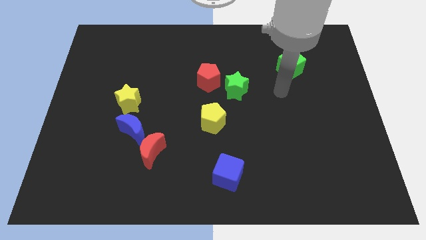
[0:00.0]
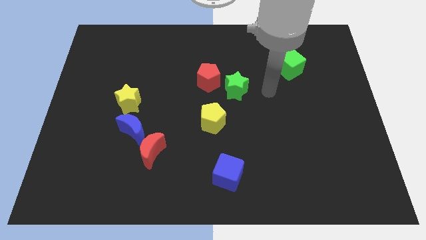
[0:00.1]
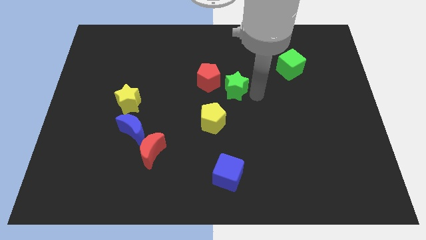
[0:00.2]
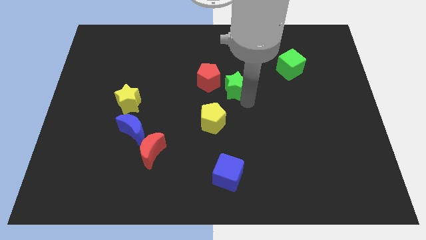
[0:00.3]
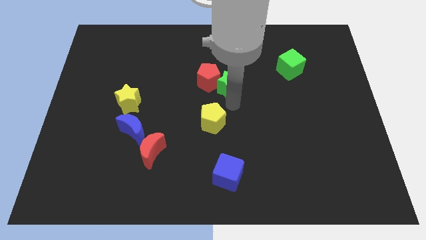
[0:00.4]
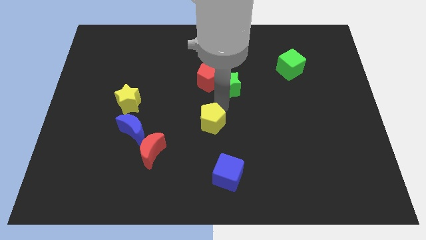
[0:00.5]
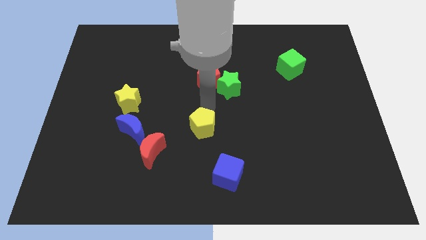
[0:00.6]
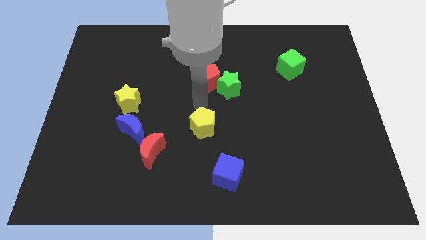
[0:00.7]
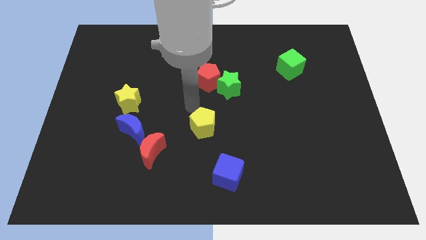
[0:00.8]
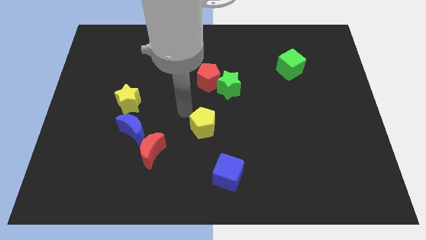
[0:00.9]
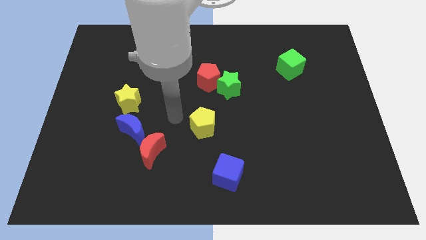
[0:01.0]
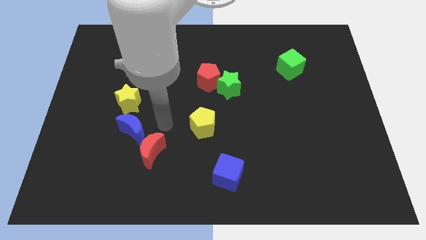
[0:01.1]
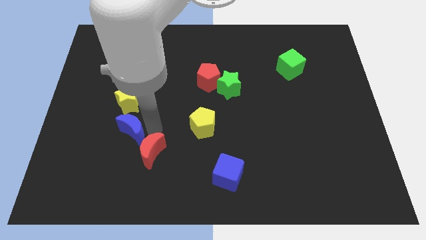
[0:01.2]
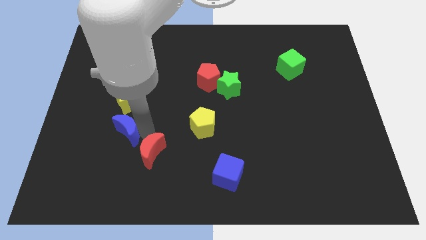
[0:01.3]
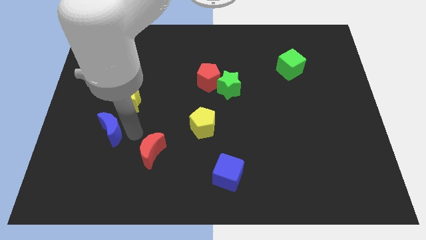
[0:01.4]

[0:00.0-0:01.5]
separate the red moon from the blue moon

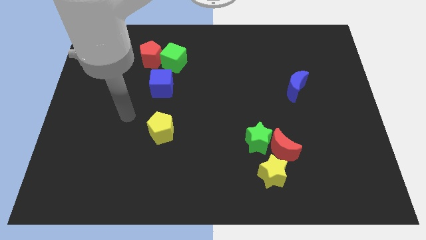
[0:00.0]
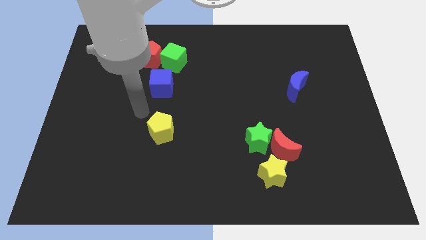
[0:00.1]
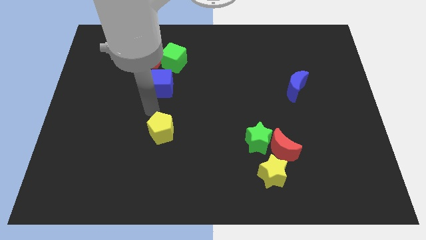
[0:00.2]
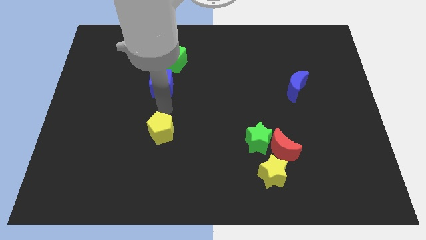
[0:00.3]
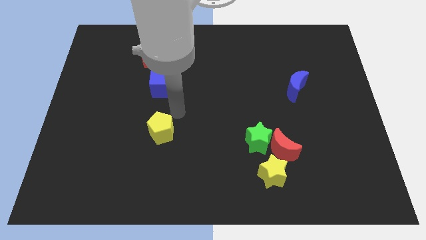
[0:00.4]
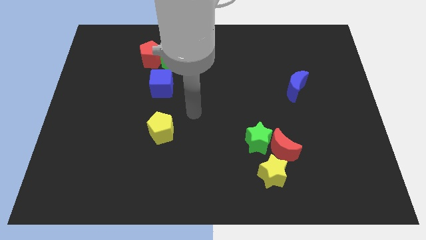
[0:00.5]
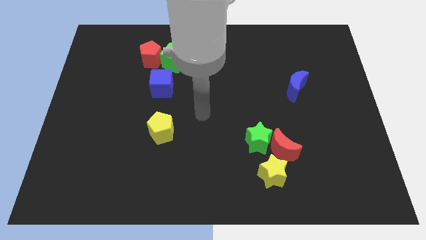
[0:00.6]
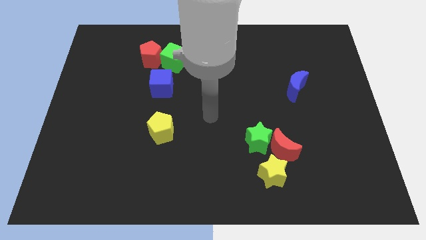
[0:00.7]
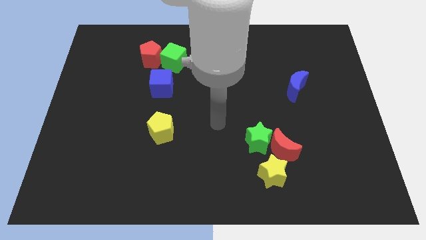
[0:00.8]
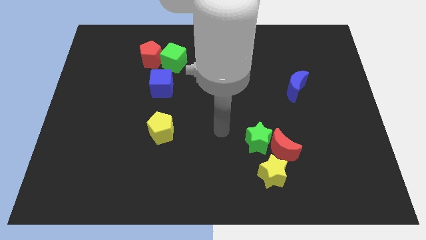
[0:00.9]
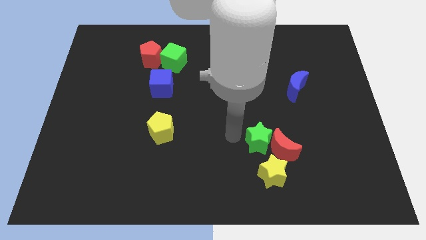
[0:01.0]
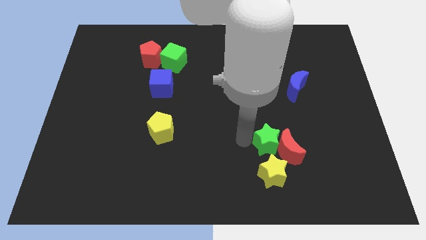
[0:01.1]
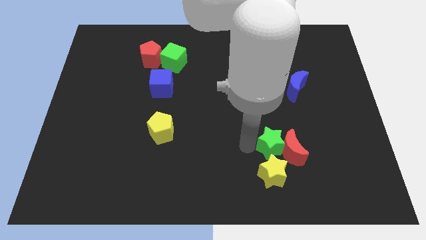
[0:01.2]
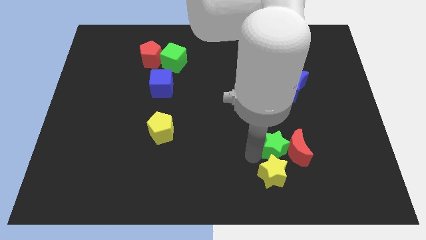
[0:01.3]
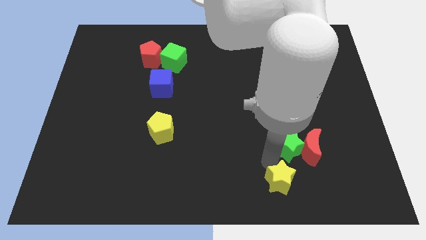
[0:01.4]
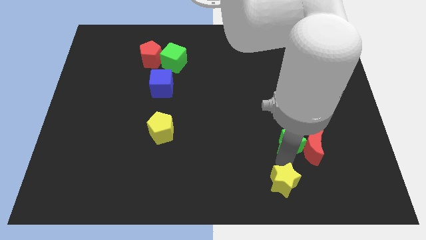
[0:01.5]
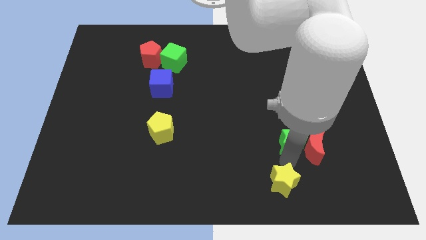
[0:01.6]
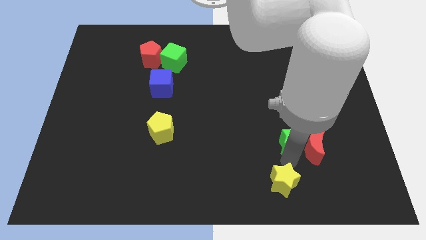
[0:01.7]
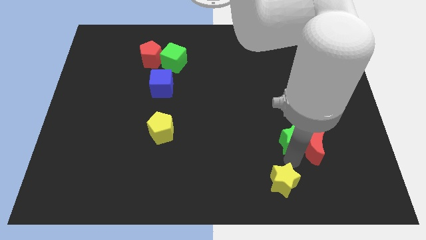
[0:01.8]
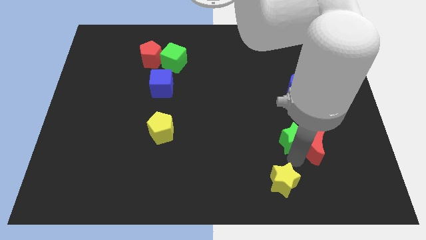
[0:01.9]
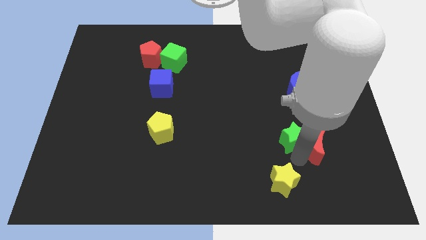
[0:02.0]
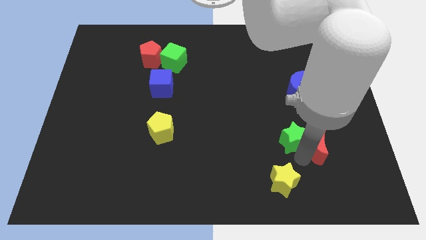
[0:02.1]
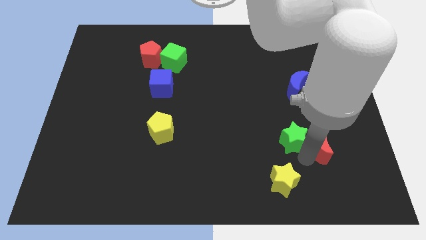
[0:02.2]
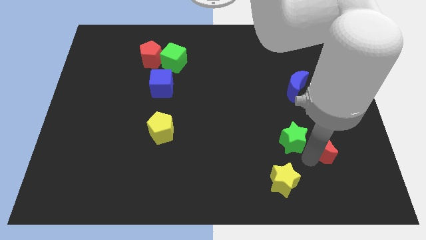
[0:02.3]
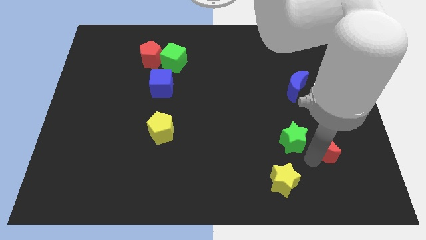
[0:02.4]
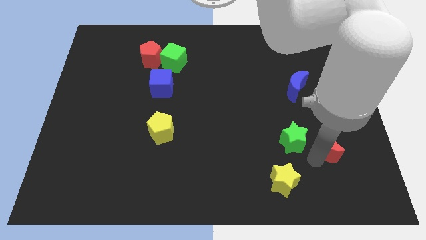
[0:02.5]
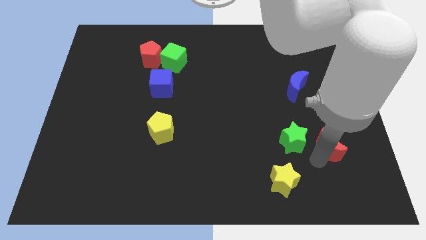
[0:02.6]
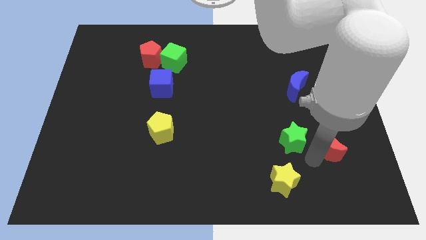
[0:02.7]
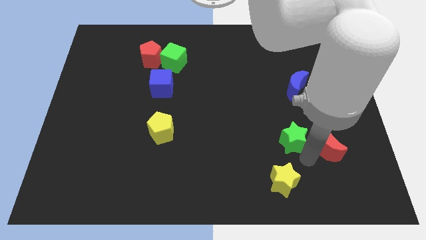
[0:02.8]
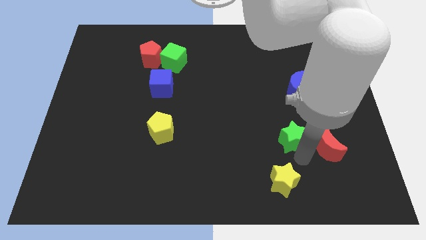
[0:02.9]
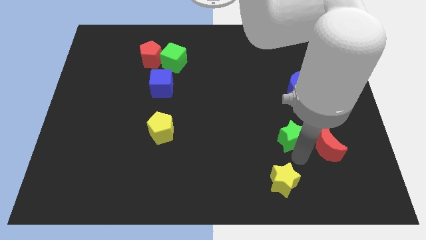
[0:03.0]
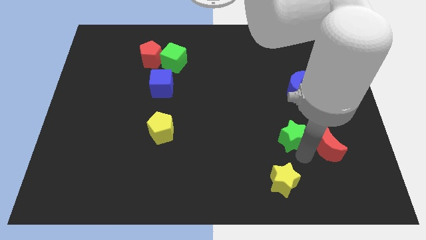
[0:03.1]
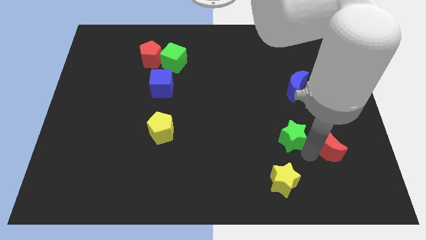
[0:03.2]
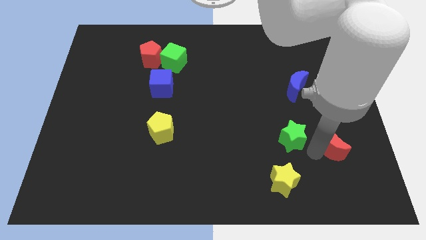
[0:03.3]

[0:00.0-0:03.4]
separate the red moon from the green star and yellow star

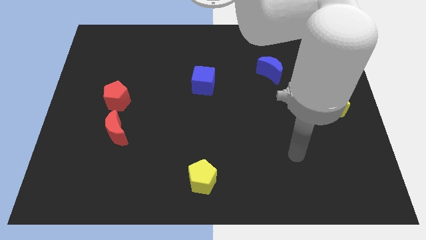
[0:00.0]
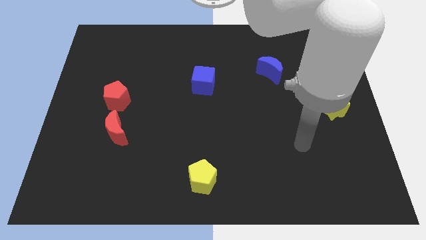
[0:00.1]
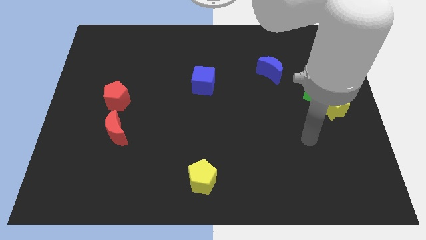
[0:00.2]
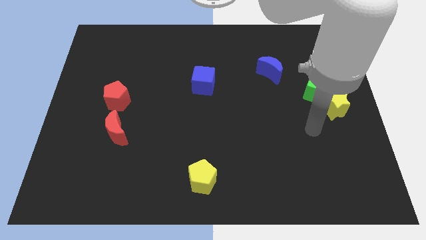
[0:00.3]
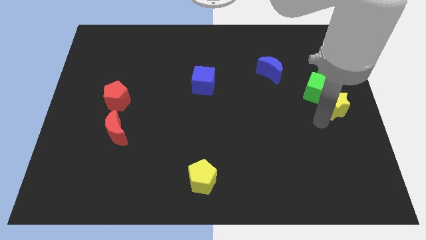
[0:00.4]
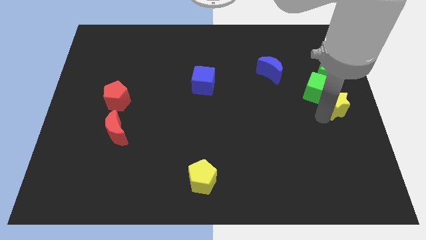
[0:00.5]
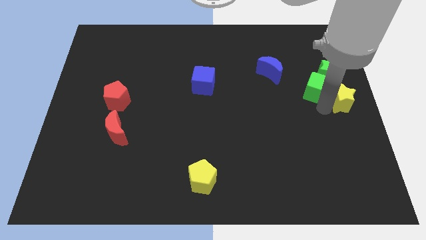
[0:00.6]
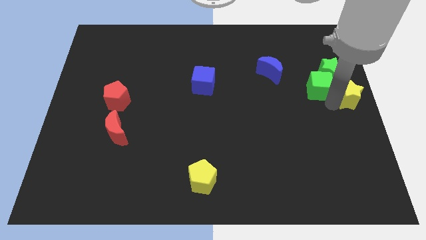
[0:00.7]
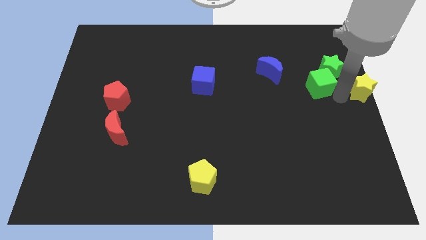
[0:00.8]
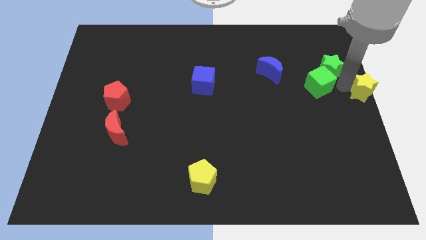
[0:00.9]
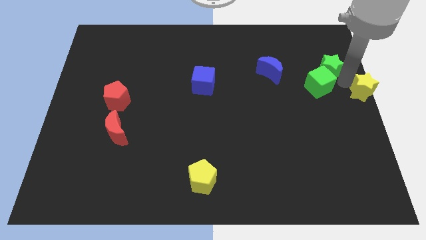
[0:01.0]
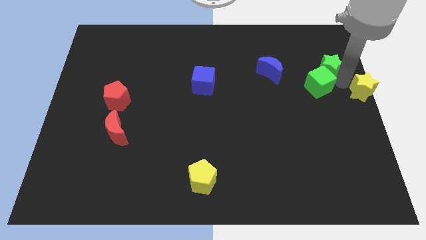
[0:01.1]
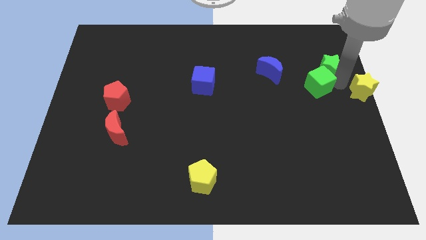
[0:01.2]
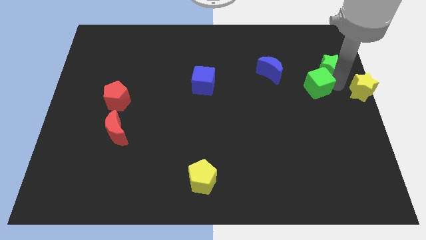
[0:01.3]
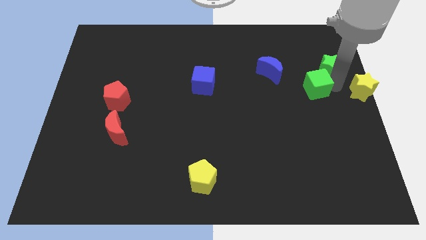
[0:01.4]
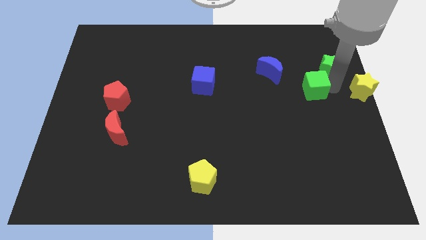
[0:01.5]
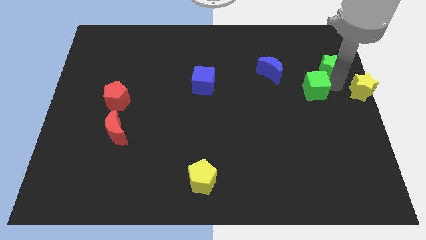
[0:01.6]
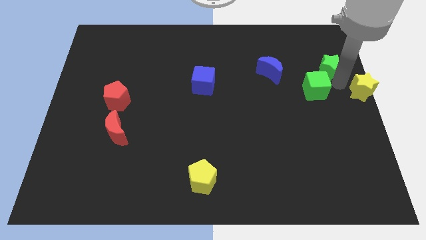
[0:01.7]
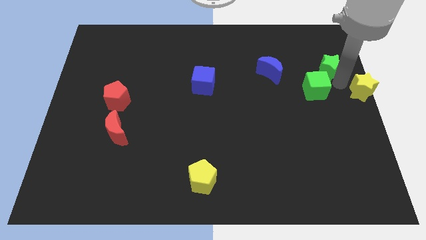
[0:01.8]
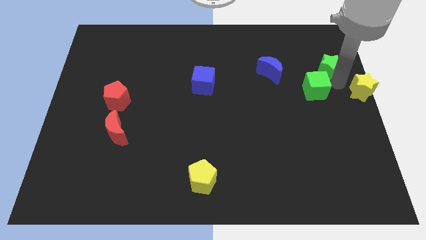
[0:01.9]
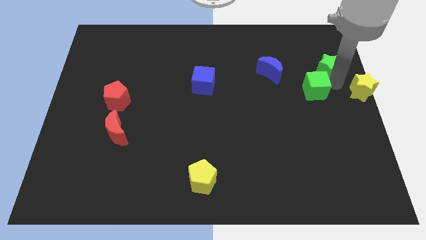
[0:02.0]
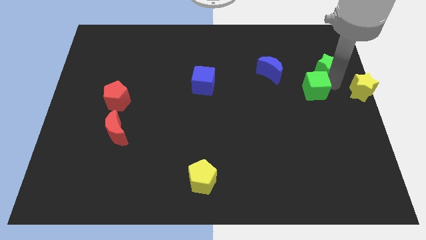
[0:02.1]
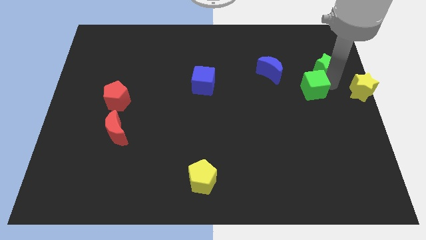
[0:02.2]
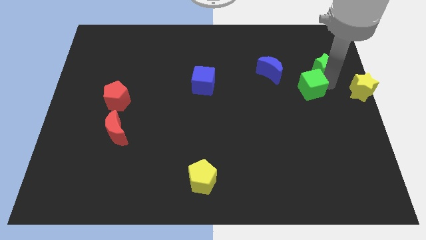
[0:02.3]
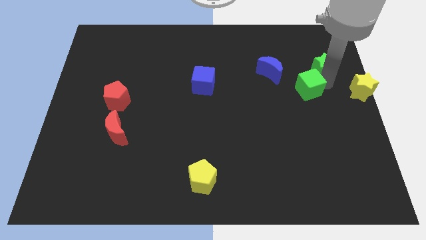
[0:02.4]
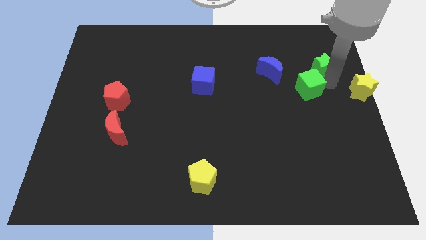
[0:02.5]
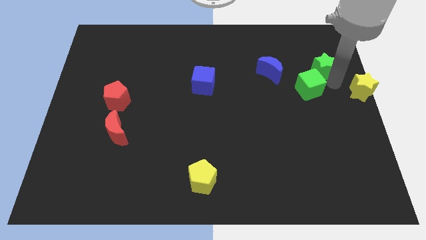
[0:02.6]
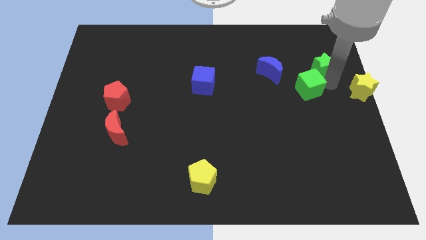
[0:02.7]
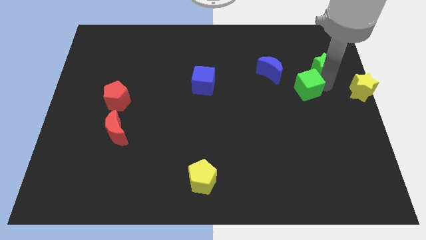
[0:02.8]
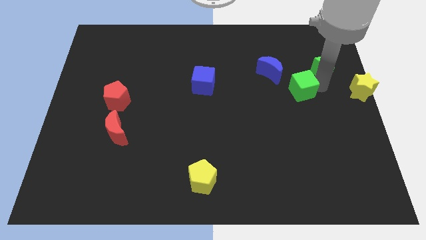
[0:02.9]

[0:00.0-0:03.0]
pull the green cube apart from the green star and yellow star

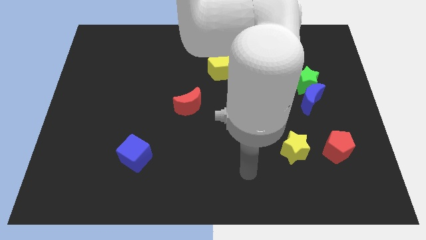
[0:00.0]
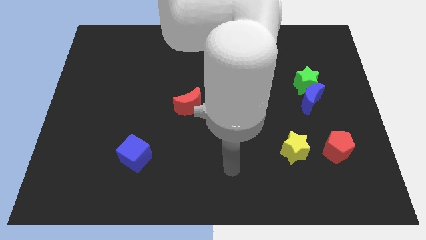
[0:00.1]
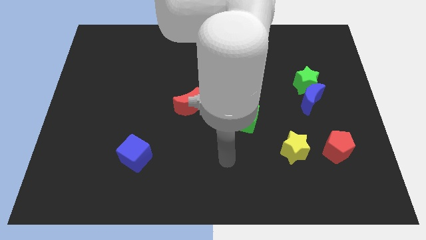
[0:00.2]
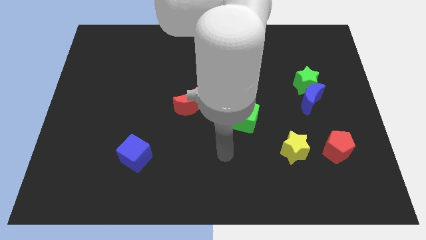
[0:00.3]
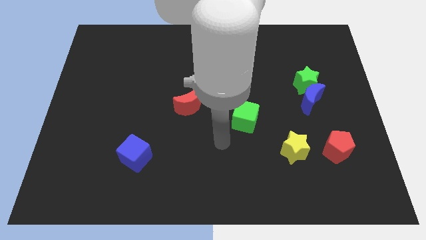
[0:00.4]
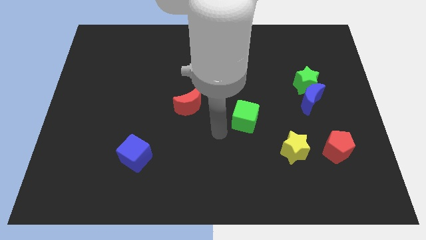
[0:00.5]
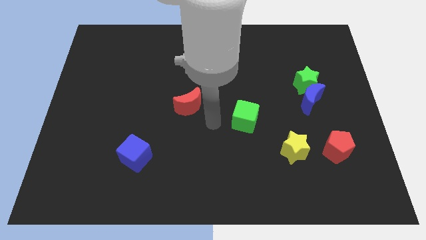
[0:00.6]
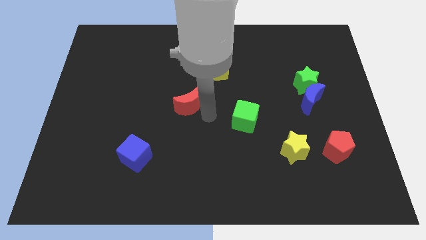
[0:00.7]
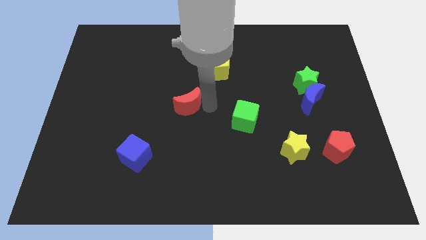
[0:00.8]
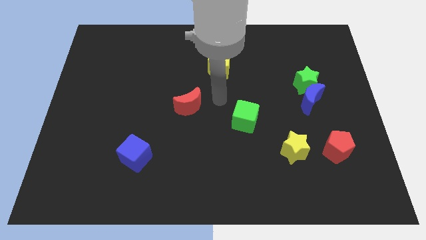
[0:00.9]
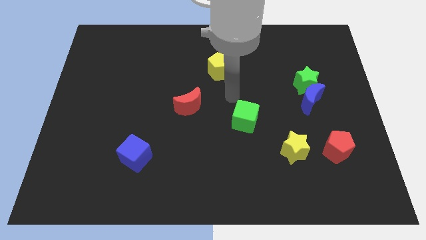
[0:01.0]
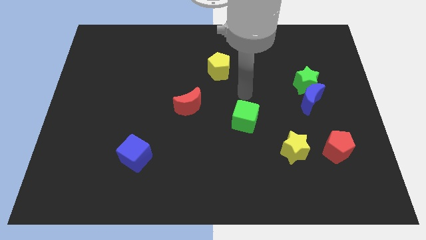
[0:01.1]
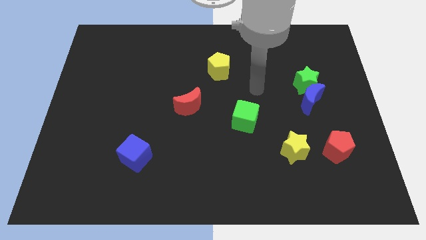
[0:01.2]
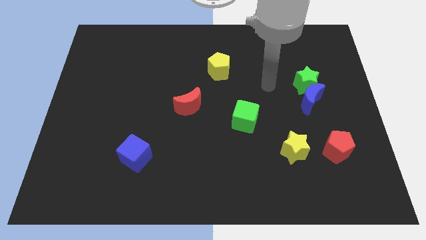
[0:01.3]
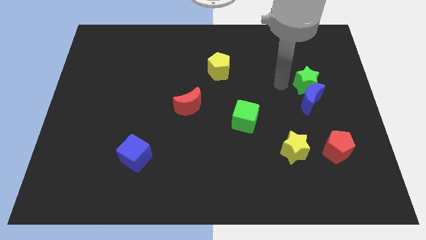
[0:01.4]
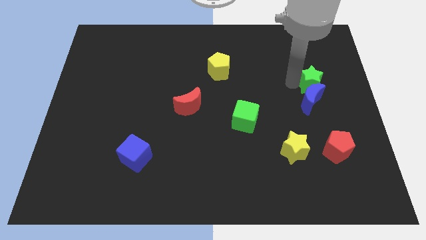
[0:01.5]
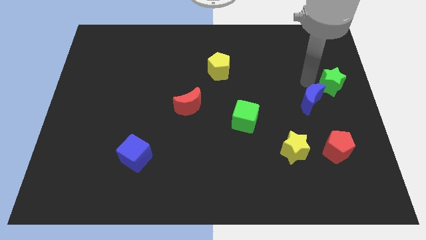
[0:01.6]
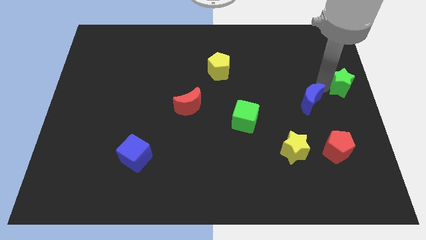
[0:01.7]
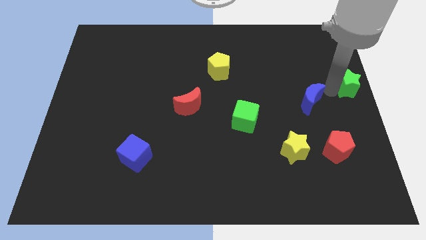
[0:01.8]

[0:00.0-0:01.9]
move the blue moon away from the green star
